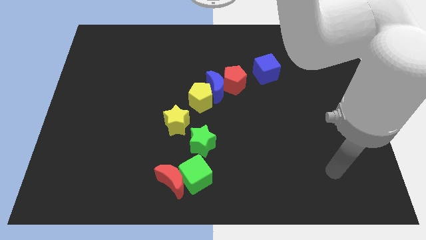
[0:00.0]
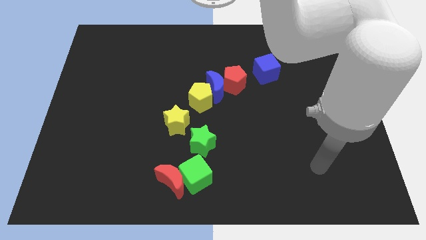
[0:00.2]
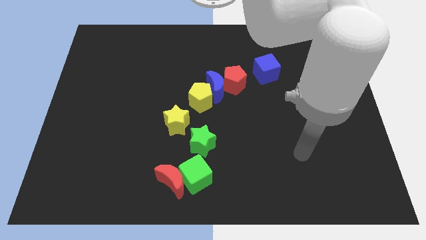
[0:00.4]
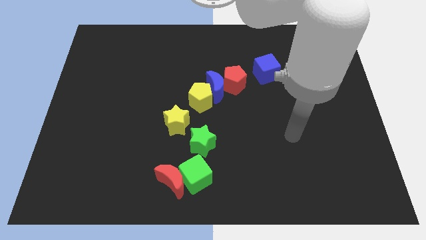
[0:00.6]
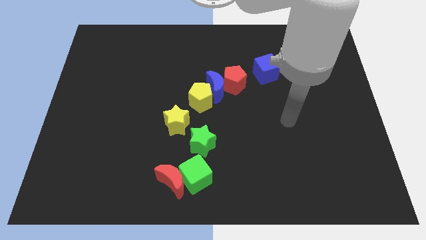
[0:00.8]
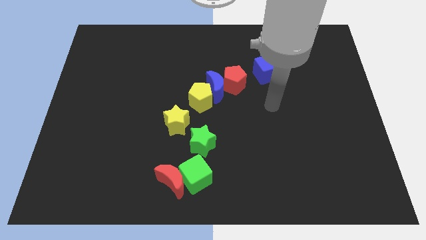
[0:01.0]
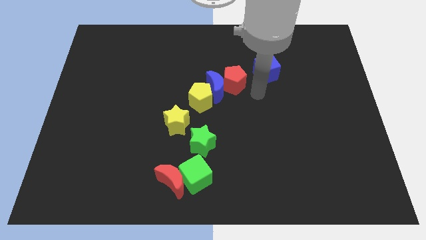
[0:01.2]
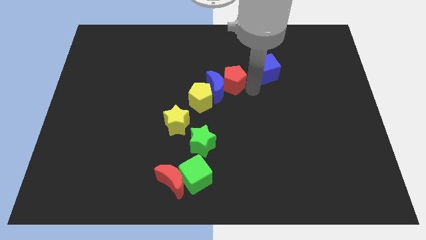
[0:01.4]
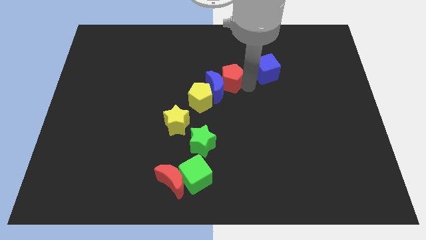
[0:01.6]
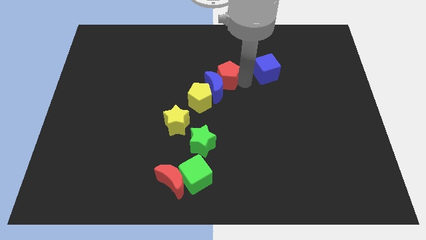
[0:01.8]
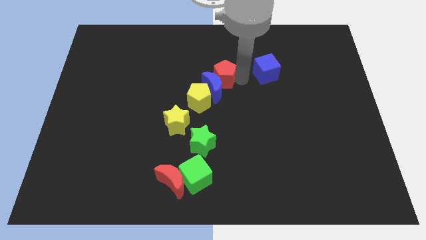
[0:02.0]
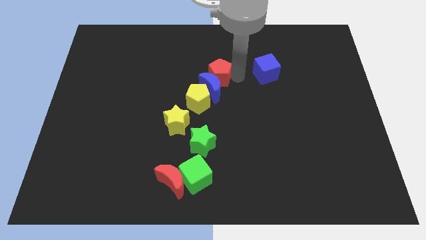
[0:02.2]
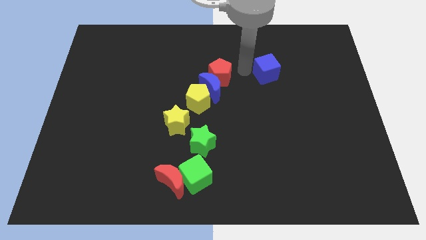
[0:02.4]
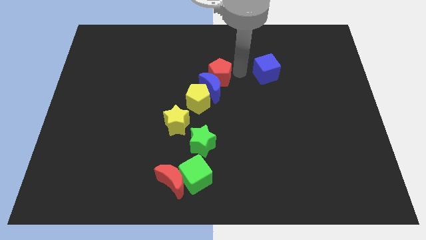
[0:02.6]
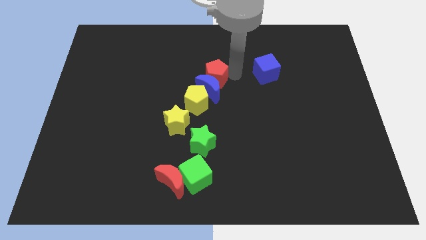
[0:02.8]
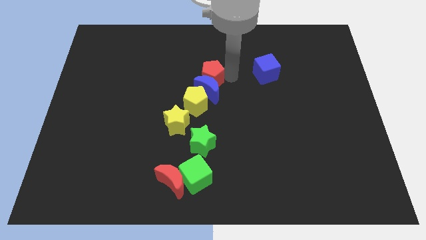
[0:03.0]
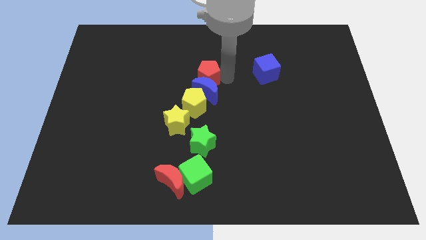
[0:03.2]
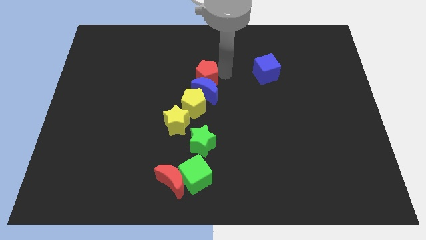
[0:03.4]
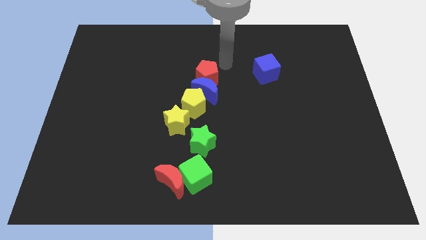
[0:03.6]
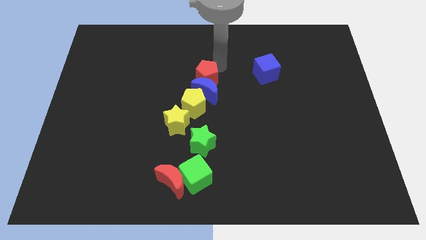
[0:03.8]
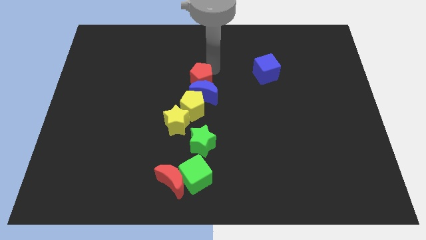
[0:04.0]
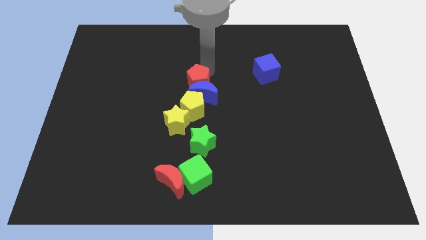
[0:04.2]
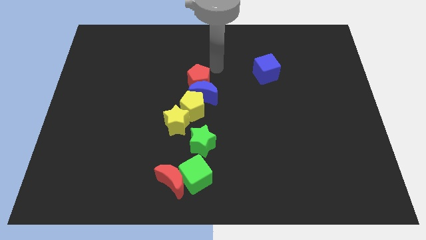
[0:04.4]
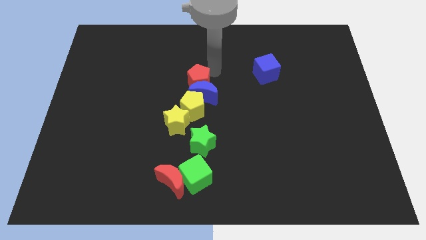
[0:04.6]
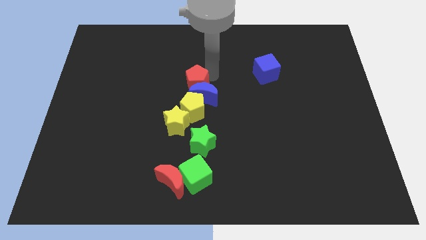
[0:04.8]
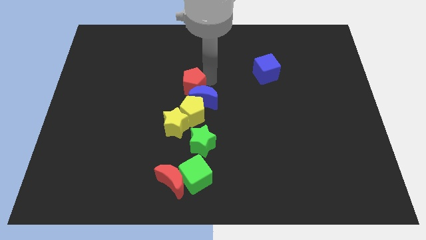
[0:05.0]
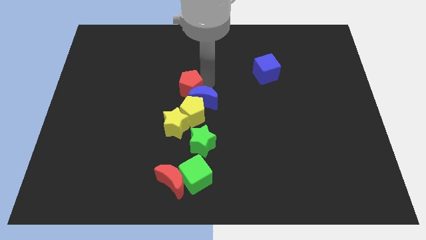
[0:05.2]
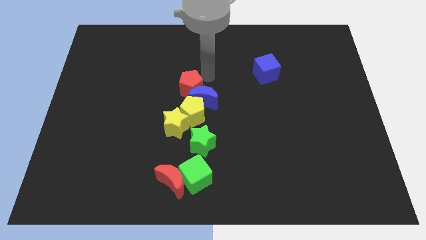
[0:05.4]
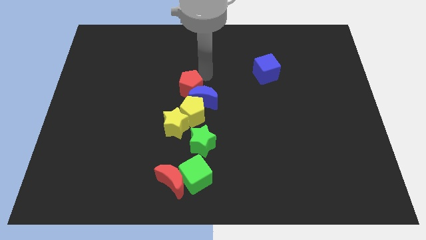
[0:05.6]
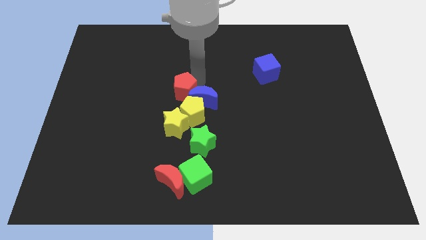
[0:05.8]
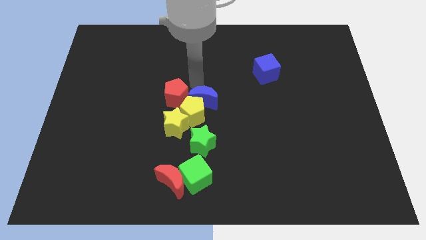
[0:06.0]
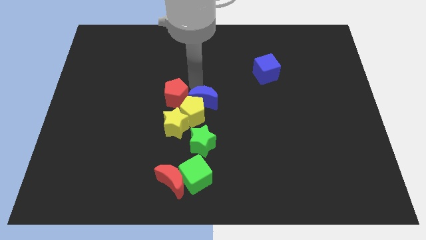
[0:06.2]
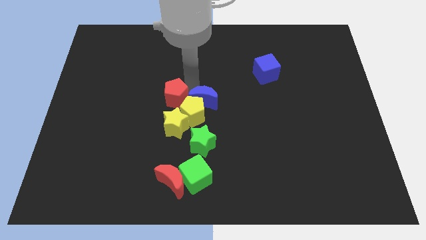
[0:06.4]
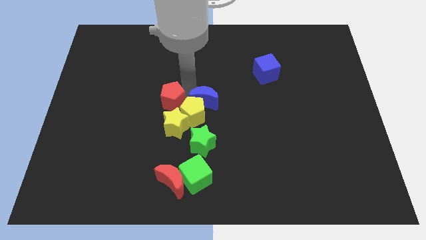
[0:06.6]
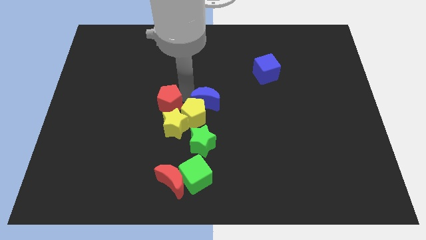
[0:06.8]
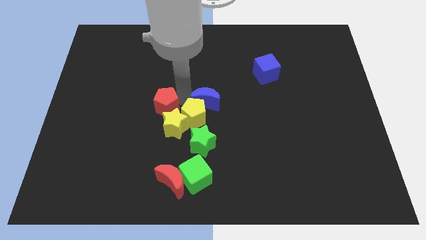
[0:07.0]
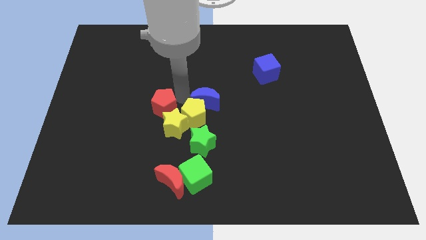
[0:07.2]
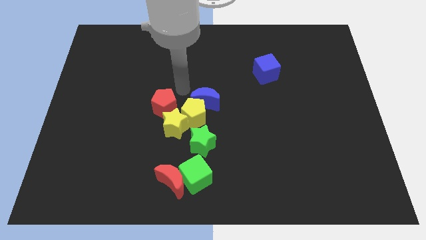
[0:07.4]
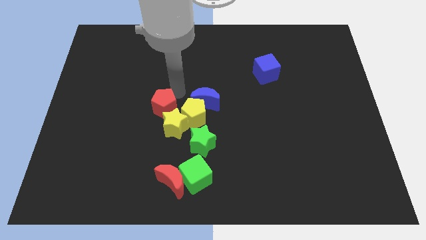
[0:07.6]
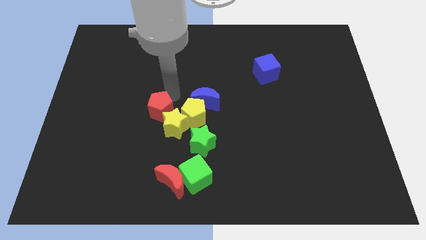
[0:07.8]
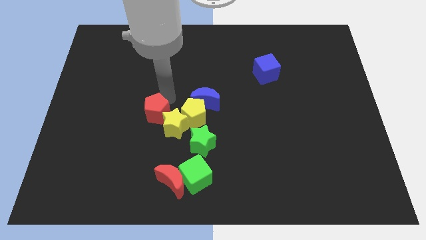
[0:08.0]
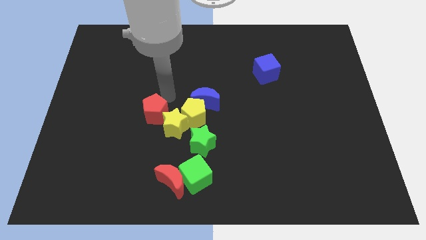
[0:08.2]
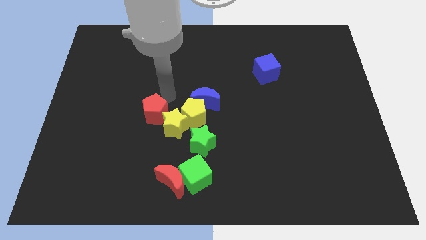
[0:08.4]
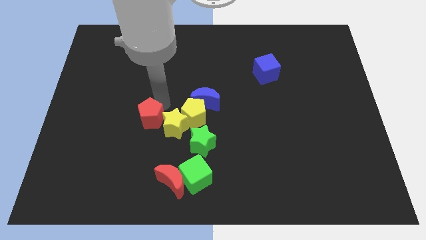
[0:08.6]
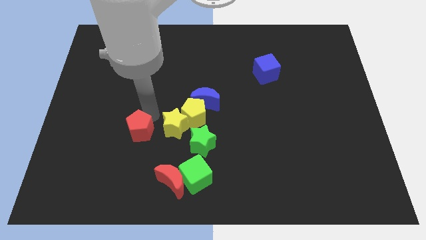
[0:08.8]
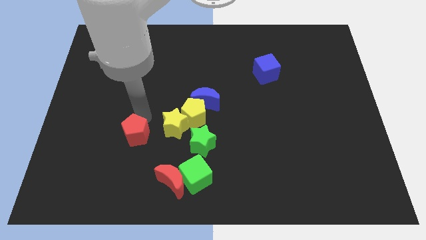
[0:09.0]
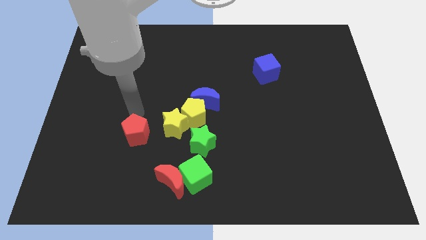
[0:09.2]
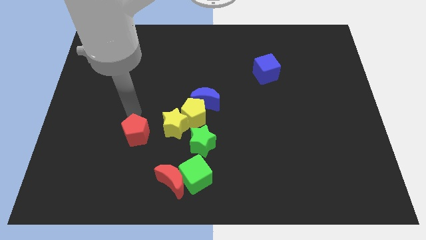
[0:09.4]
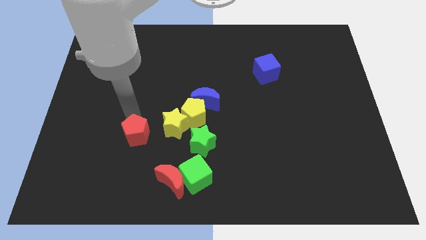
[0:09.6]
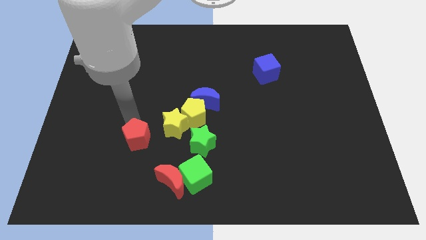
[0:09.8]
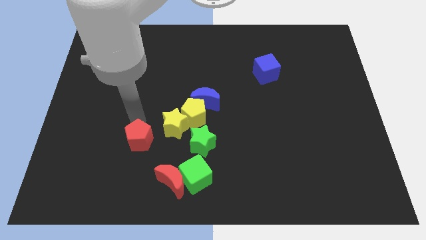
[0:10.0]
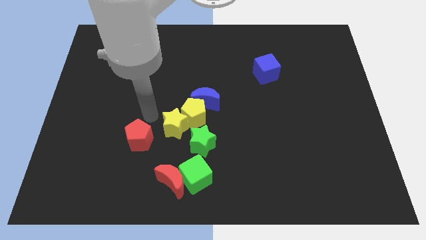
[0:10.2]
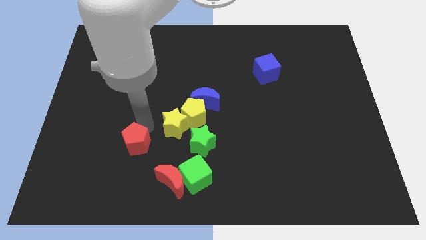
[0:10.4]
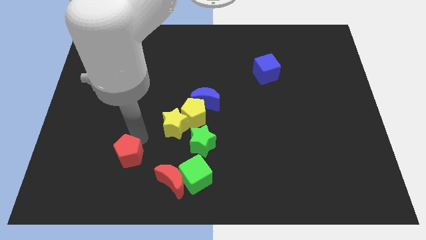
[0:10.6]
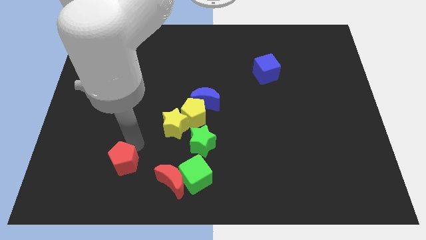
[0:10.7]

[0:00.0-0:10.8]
slide the red pentagon just left of the red moon

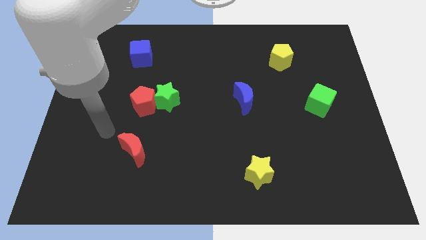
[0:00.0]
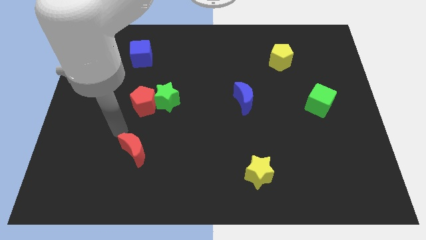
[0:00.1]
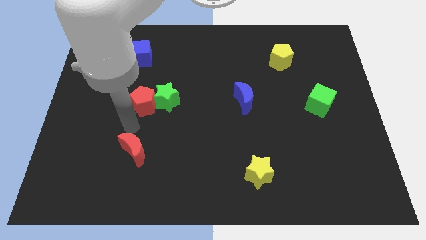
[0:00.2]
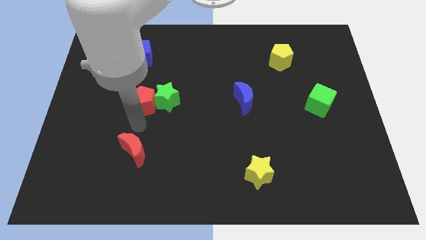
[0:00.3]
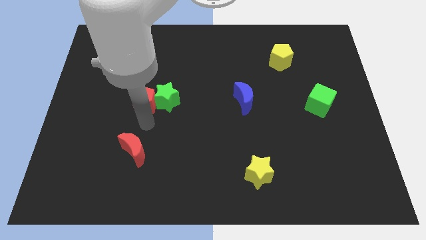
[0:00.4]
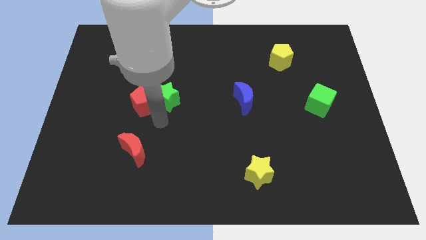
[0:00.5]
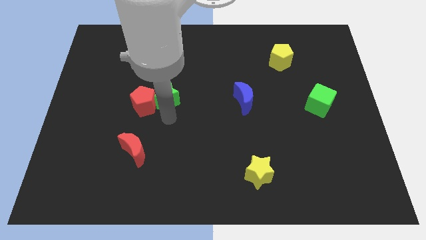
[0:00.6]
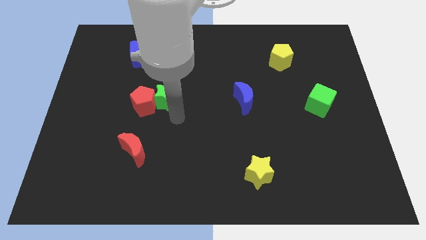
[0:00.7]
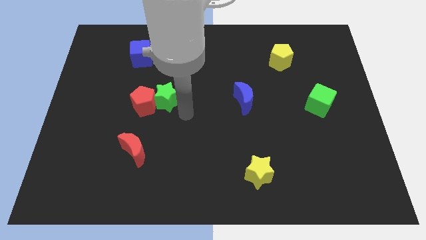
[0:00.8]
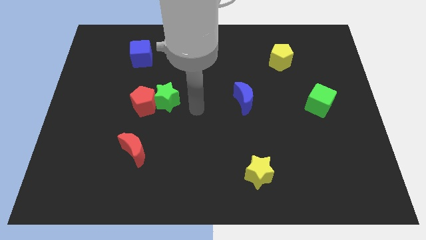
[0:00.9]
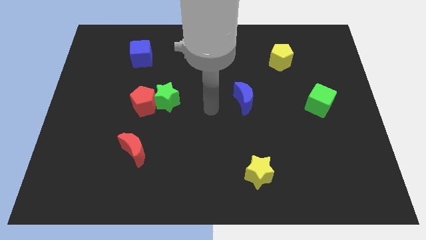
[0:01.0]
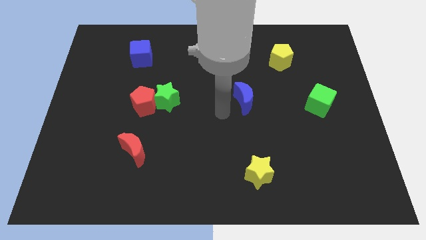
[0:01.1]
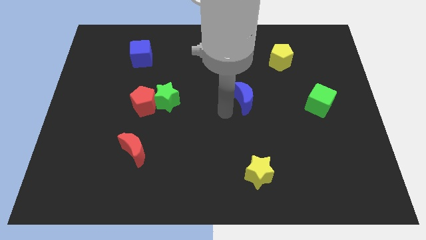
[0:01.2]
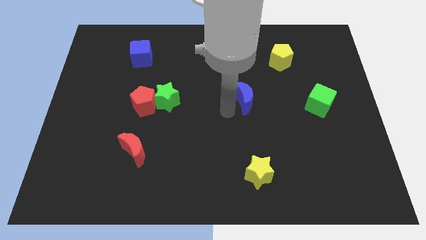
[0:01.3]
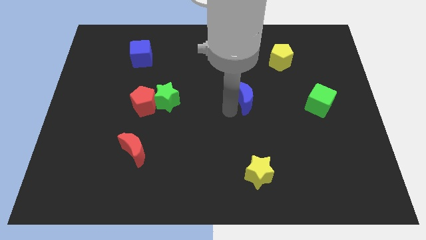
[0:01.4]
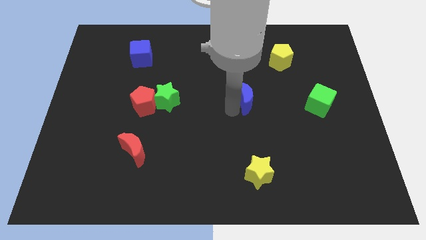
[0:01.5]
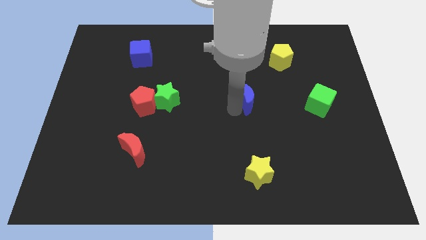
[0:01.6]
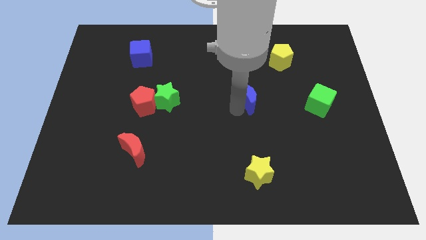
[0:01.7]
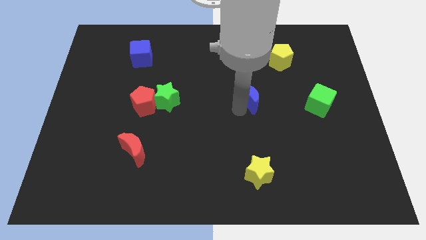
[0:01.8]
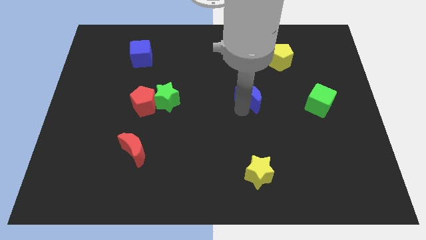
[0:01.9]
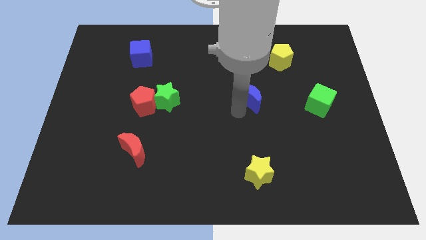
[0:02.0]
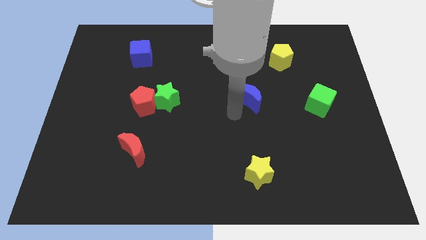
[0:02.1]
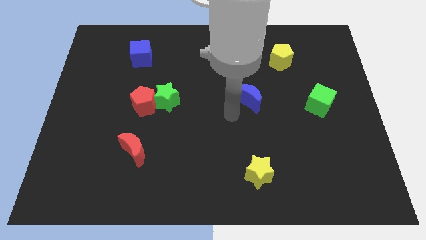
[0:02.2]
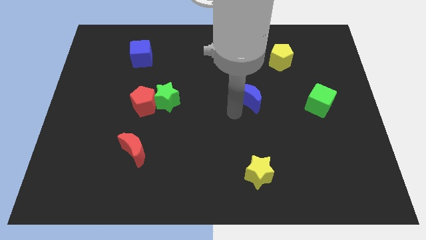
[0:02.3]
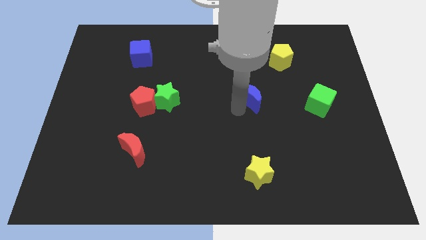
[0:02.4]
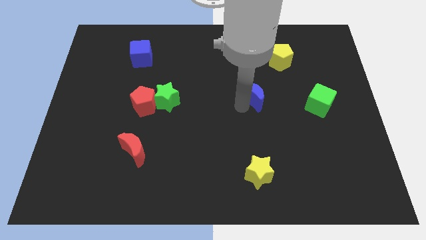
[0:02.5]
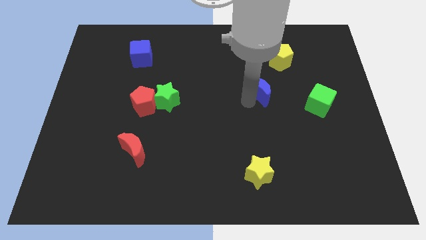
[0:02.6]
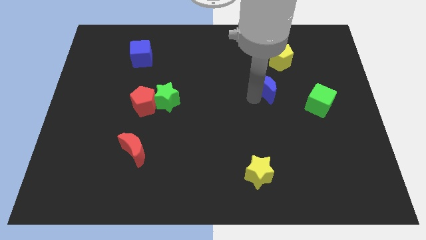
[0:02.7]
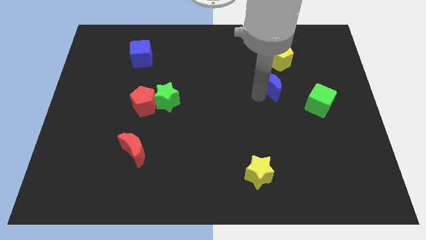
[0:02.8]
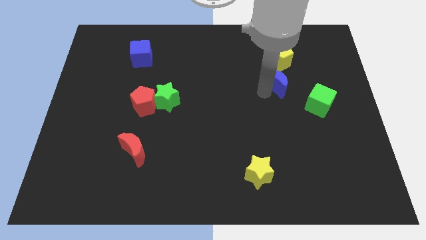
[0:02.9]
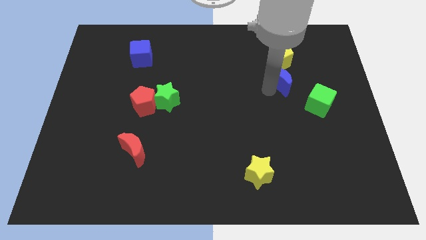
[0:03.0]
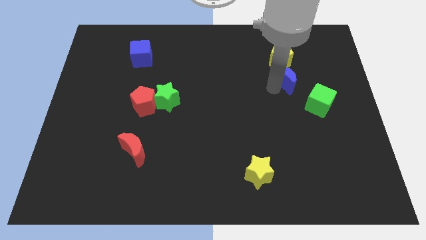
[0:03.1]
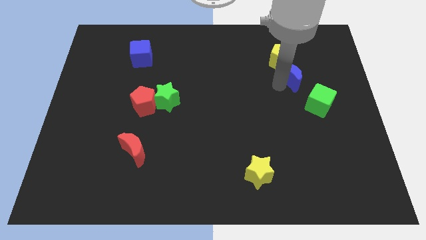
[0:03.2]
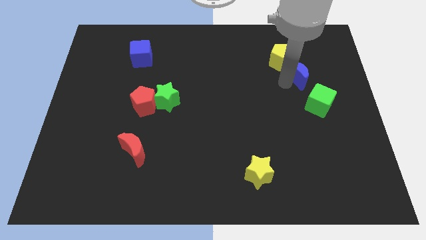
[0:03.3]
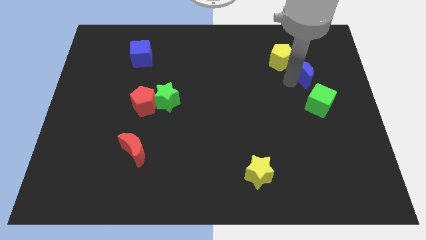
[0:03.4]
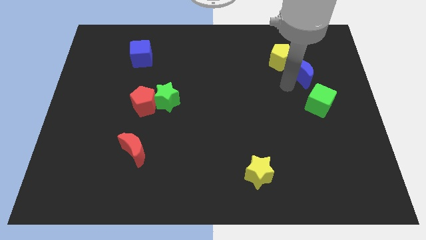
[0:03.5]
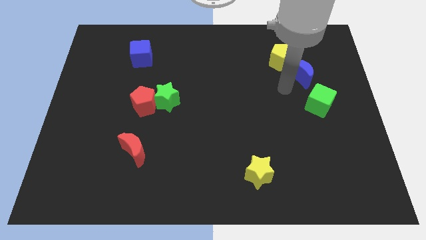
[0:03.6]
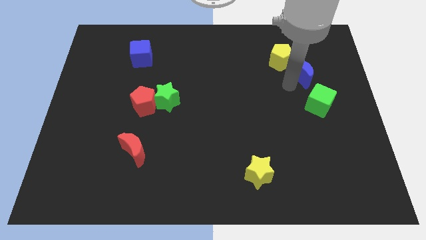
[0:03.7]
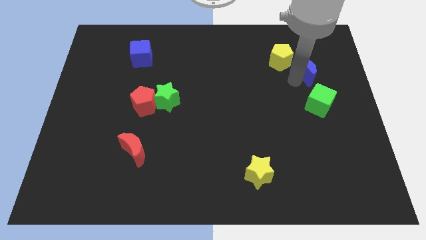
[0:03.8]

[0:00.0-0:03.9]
put the blue moon to the right side of the yellow pentagon
